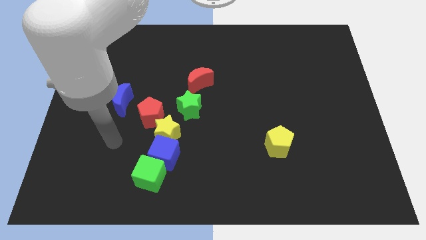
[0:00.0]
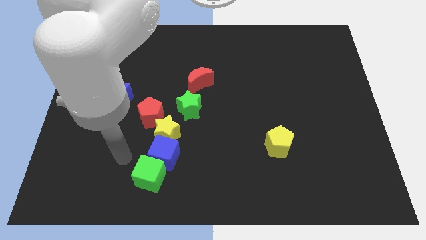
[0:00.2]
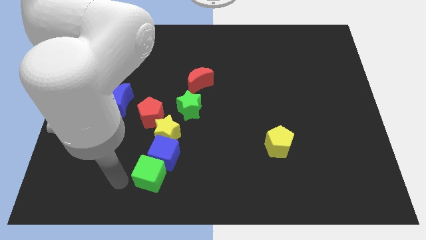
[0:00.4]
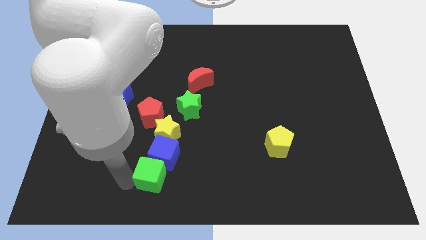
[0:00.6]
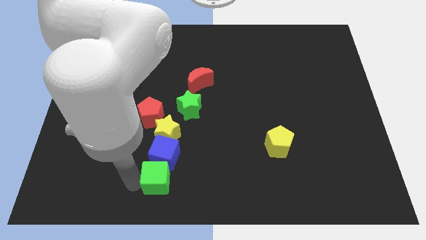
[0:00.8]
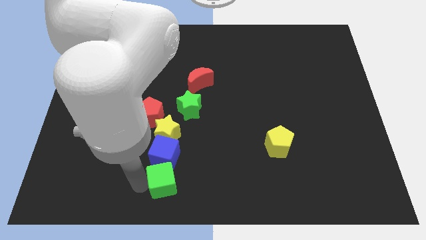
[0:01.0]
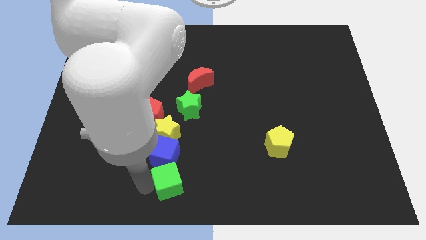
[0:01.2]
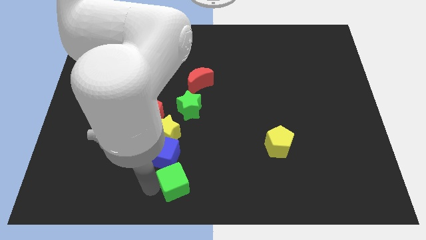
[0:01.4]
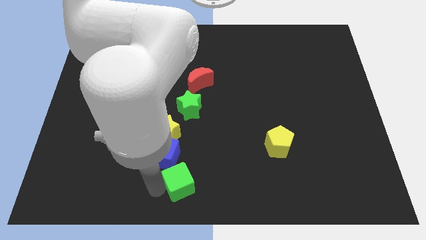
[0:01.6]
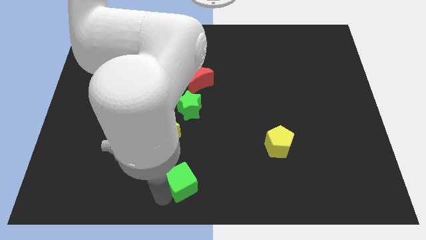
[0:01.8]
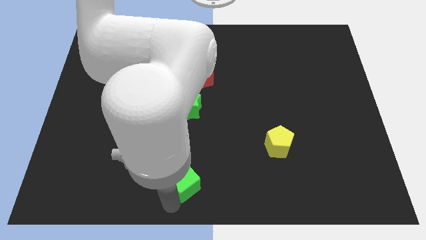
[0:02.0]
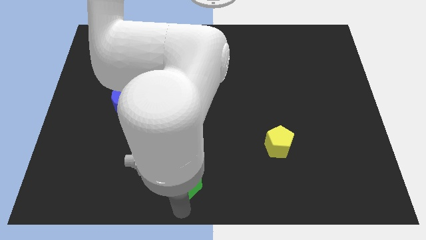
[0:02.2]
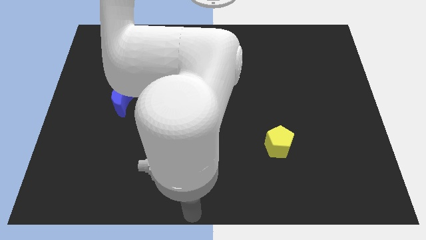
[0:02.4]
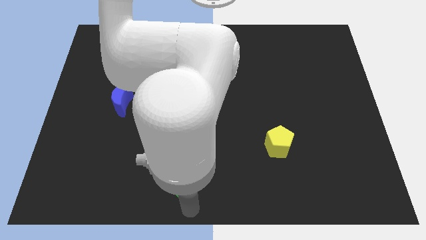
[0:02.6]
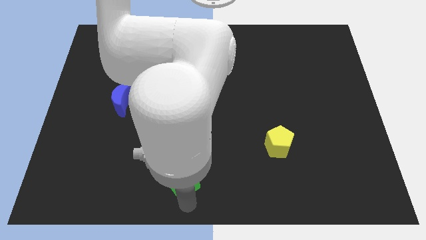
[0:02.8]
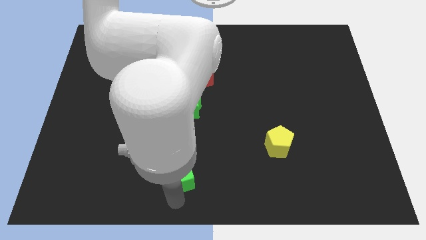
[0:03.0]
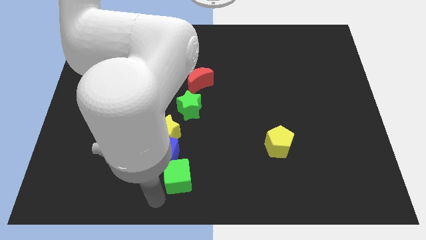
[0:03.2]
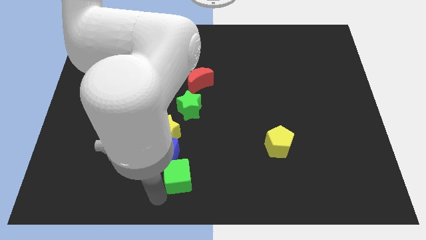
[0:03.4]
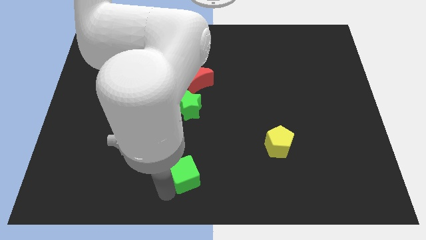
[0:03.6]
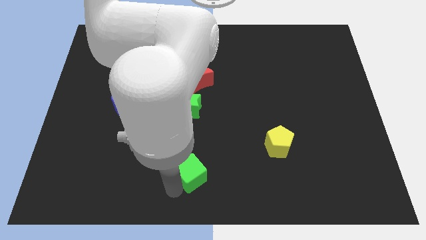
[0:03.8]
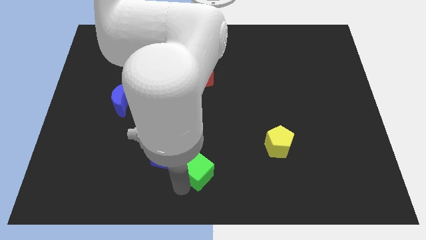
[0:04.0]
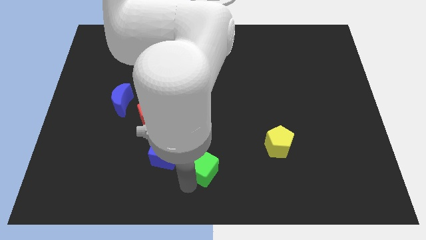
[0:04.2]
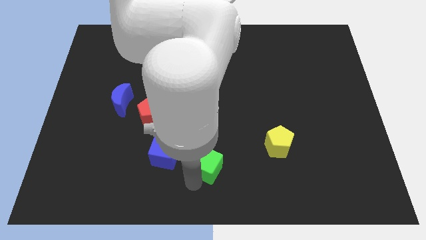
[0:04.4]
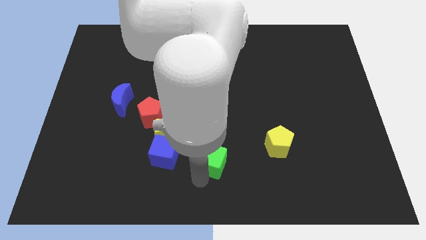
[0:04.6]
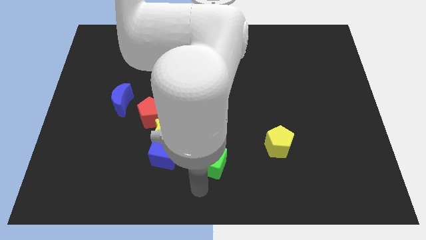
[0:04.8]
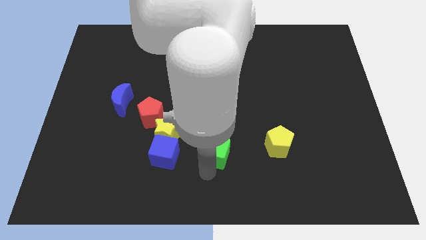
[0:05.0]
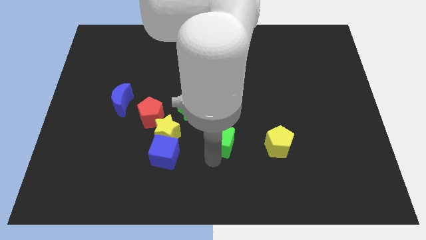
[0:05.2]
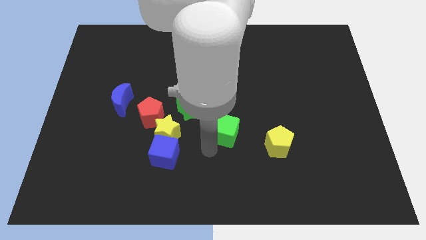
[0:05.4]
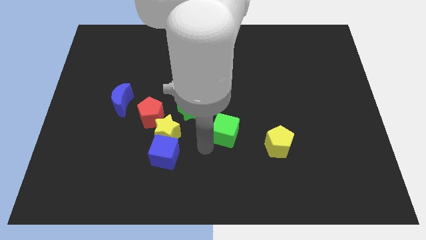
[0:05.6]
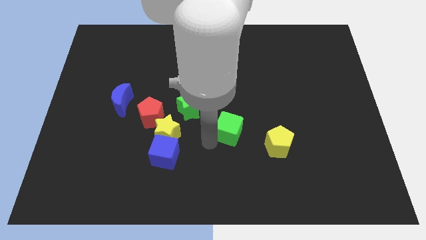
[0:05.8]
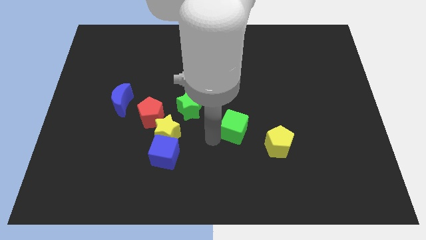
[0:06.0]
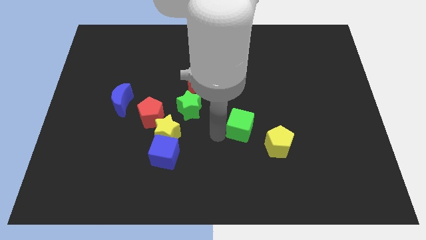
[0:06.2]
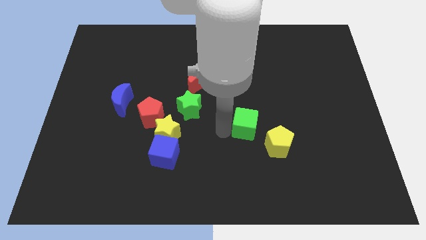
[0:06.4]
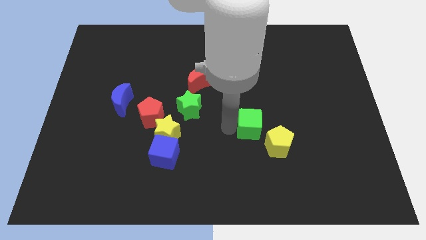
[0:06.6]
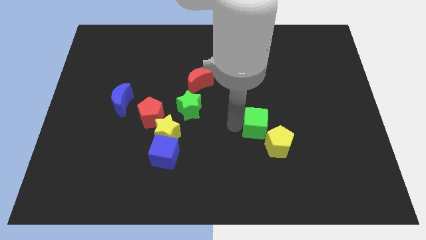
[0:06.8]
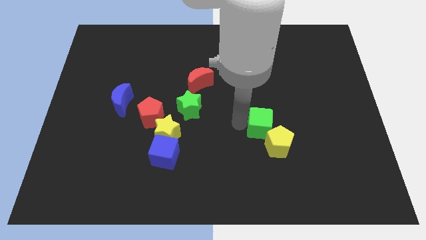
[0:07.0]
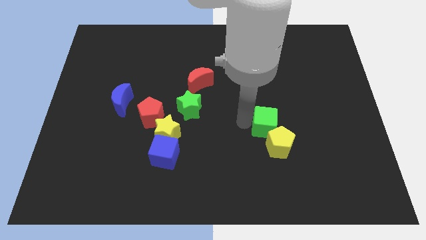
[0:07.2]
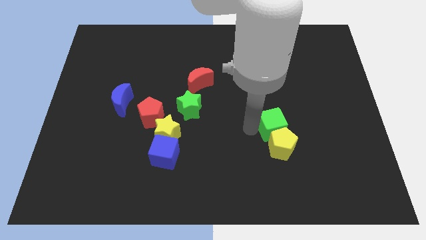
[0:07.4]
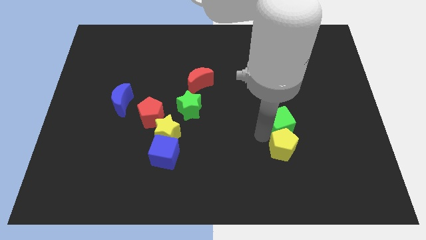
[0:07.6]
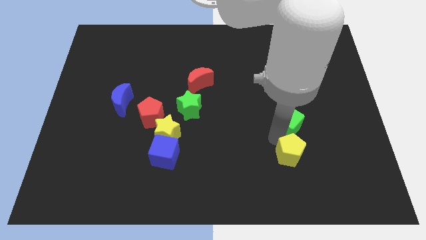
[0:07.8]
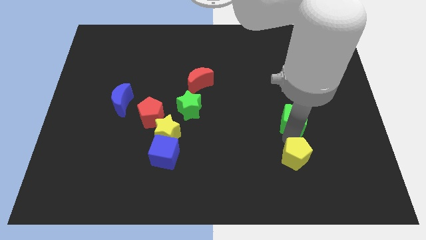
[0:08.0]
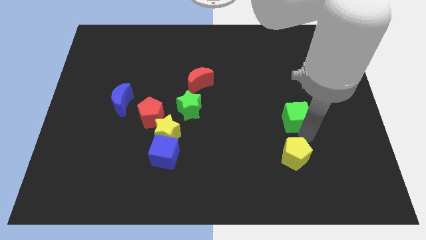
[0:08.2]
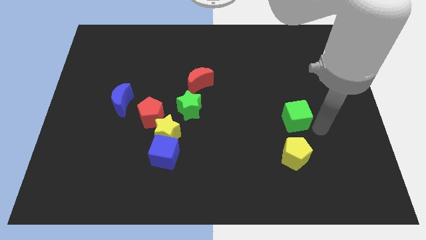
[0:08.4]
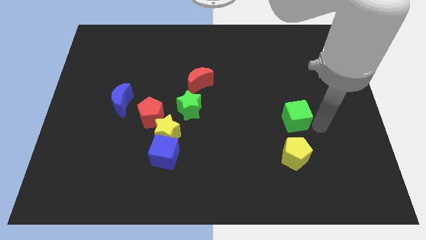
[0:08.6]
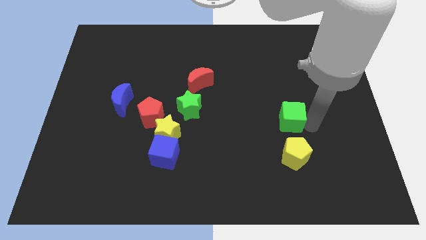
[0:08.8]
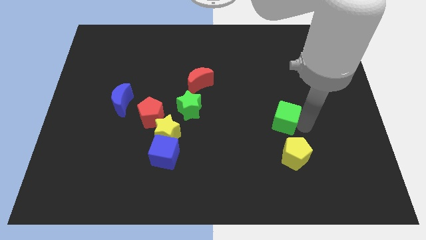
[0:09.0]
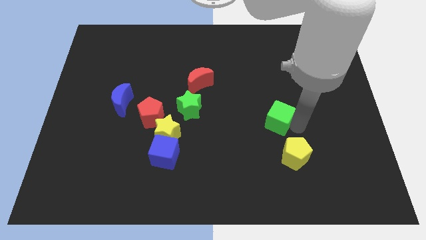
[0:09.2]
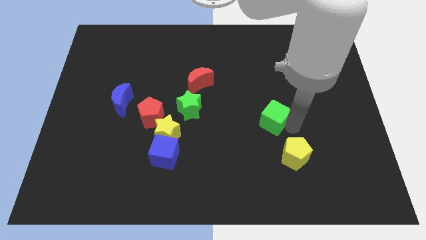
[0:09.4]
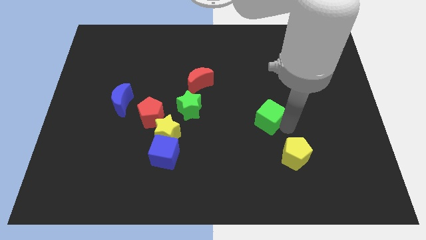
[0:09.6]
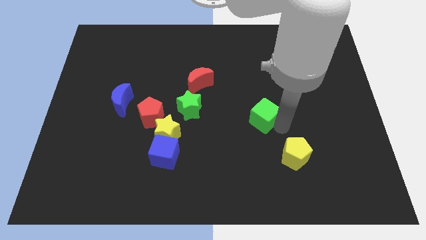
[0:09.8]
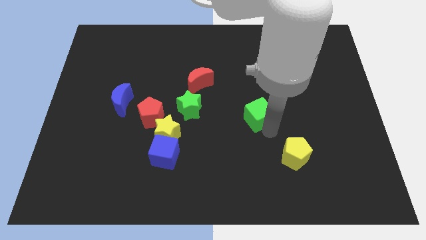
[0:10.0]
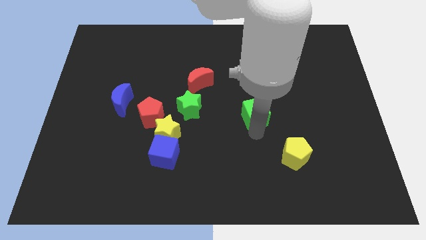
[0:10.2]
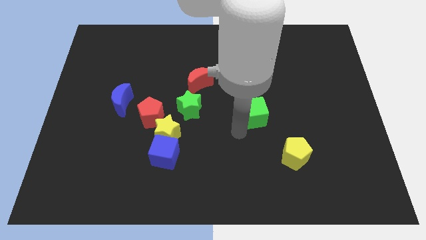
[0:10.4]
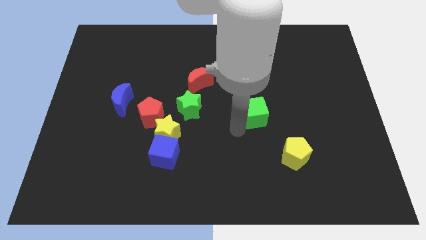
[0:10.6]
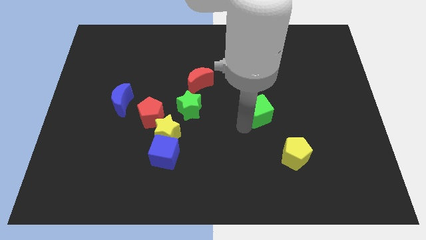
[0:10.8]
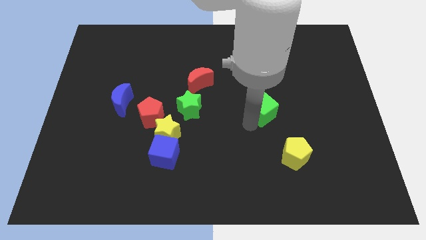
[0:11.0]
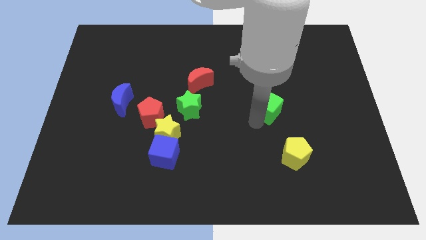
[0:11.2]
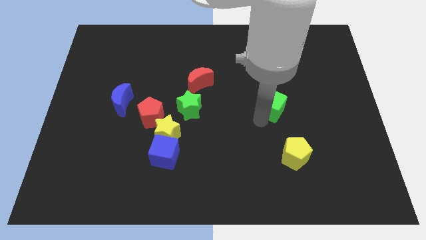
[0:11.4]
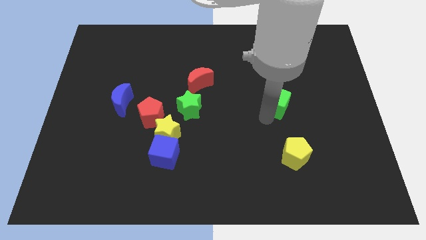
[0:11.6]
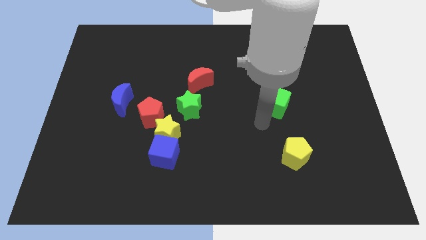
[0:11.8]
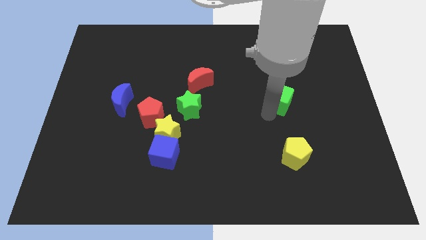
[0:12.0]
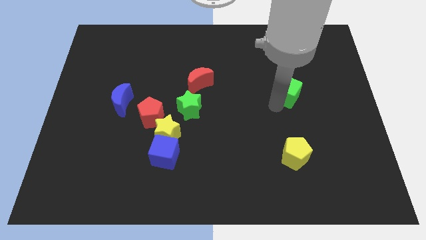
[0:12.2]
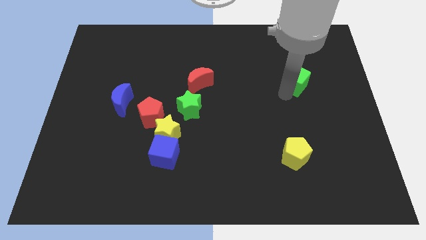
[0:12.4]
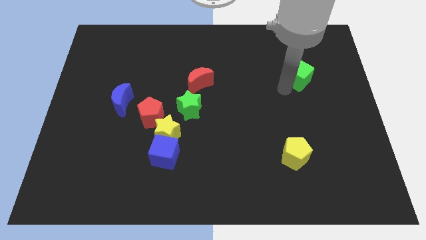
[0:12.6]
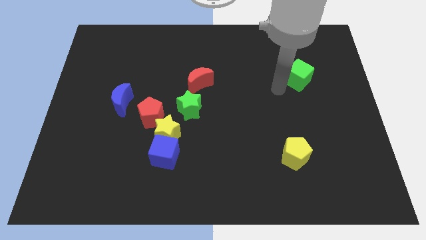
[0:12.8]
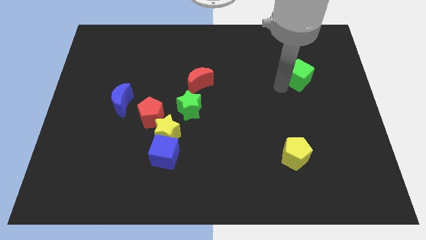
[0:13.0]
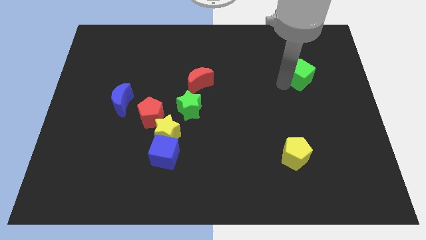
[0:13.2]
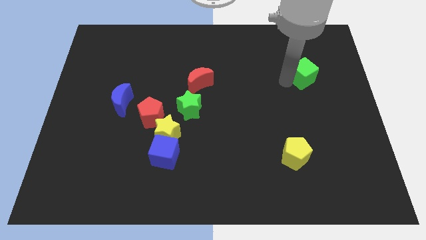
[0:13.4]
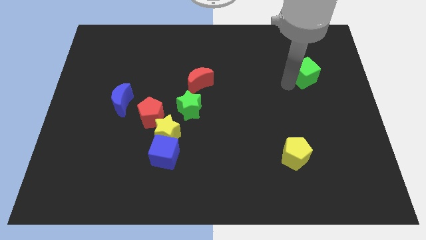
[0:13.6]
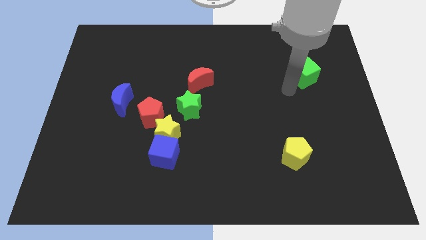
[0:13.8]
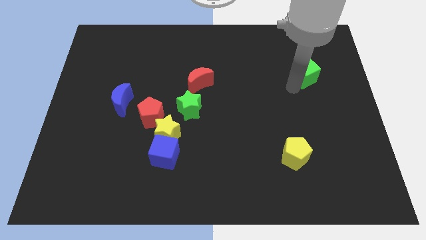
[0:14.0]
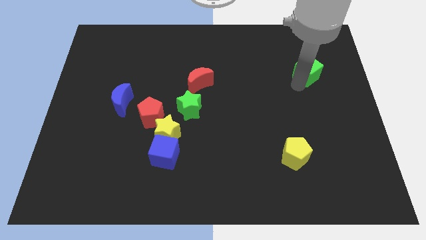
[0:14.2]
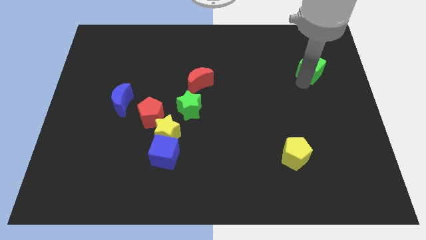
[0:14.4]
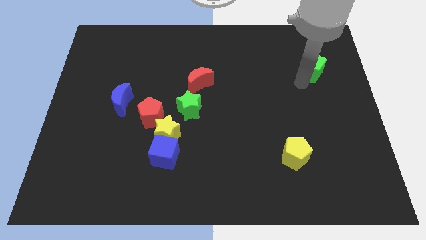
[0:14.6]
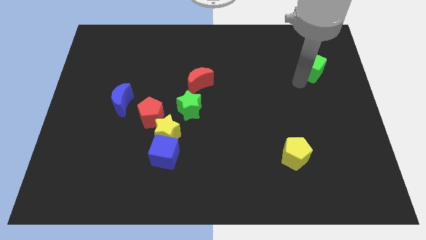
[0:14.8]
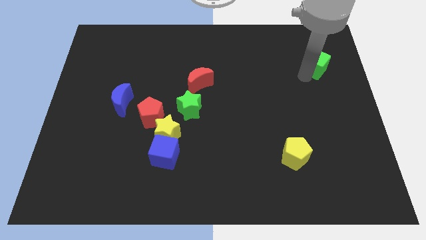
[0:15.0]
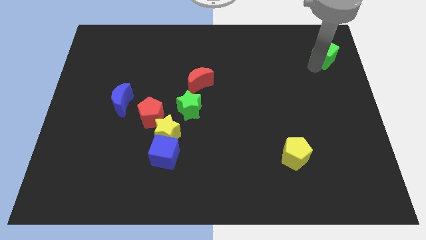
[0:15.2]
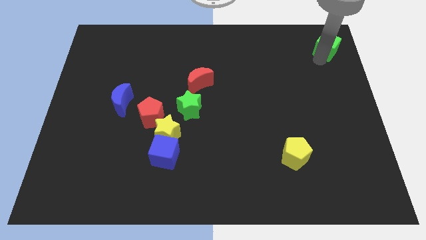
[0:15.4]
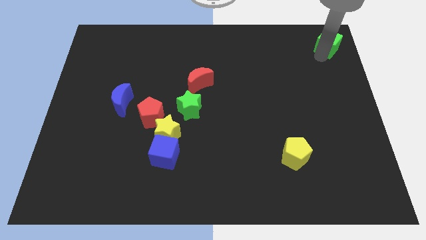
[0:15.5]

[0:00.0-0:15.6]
slide the green cube to the top right
